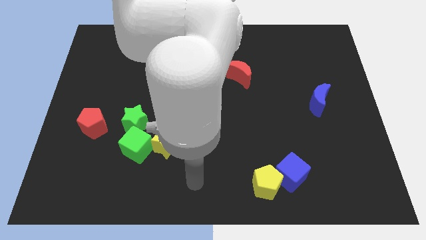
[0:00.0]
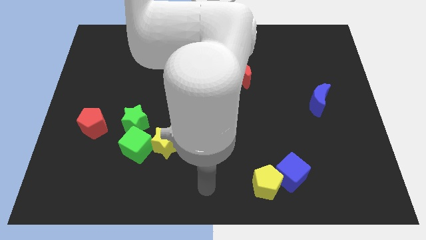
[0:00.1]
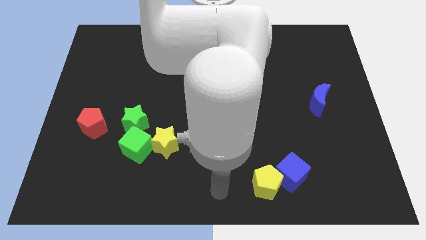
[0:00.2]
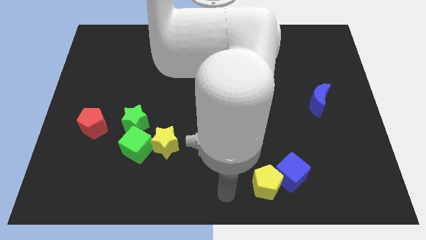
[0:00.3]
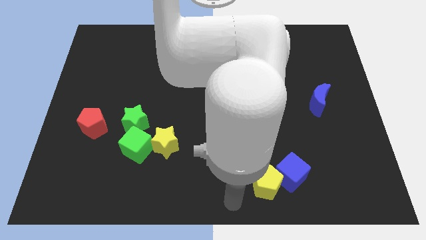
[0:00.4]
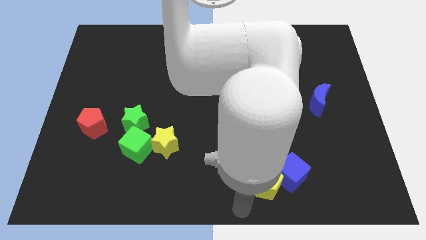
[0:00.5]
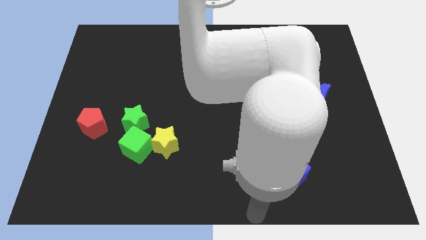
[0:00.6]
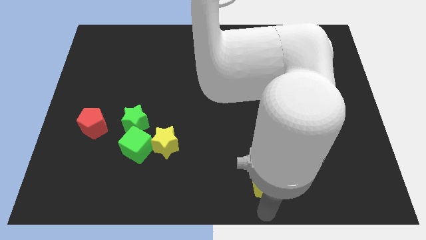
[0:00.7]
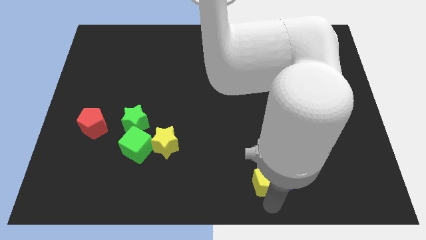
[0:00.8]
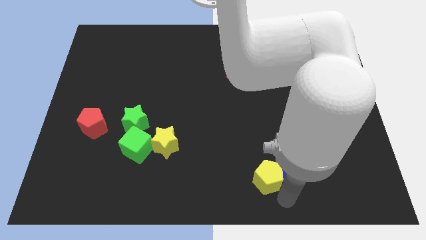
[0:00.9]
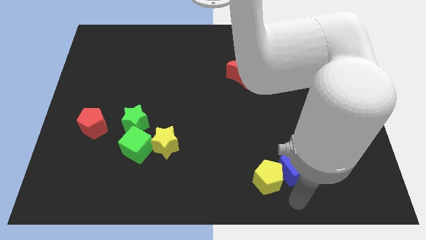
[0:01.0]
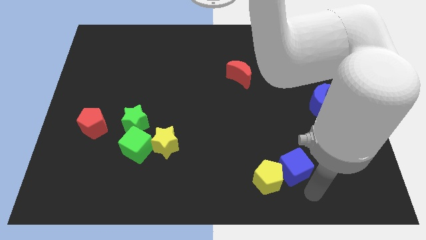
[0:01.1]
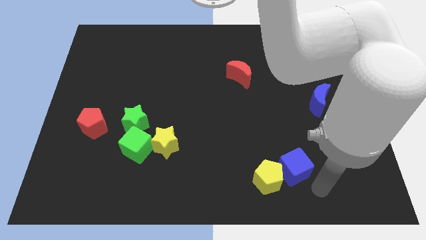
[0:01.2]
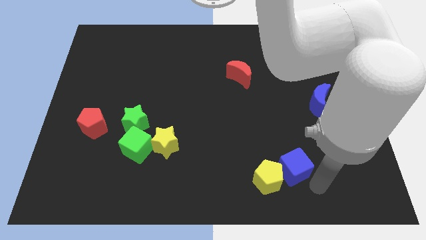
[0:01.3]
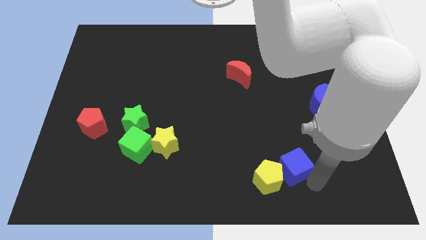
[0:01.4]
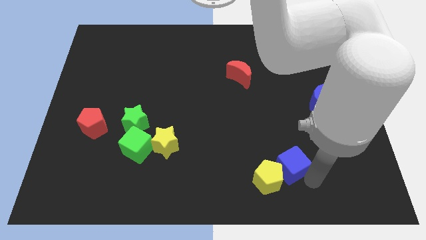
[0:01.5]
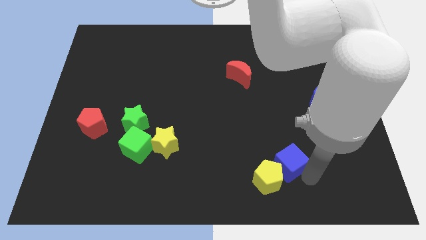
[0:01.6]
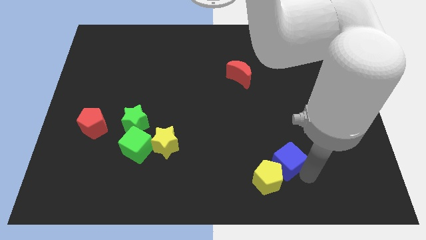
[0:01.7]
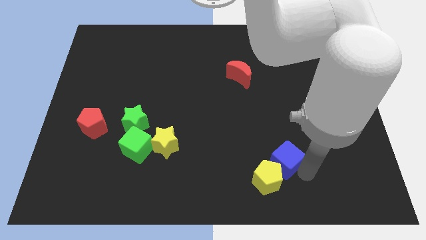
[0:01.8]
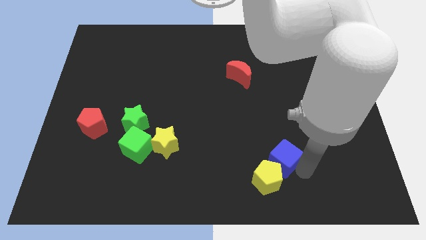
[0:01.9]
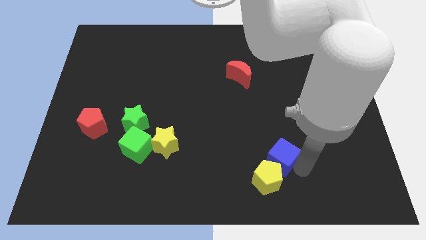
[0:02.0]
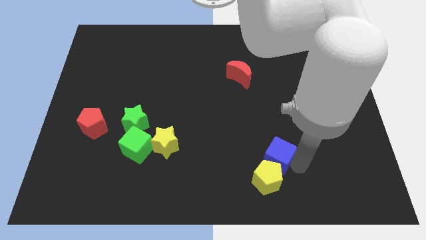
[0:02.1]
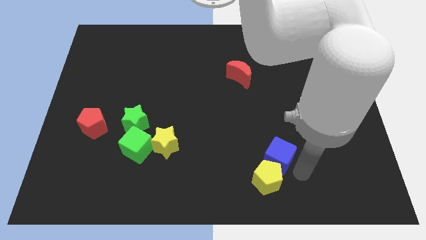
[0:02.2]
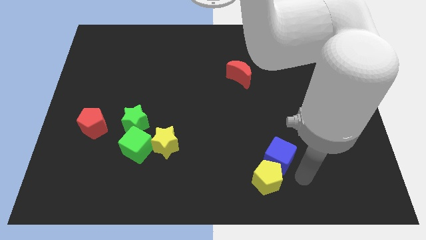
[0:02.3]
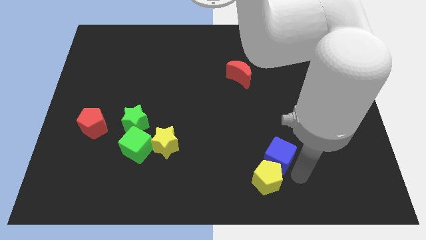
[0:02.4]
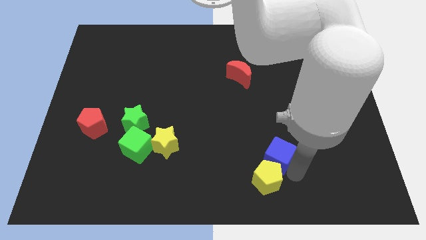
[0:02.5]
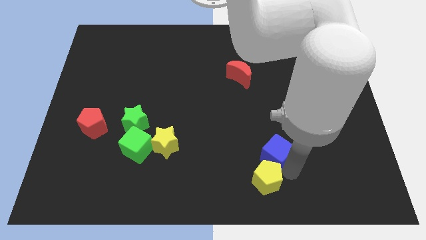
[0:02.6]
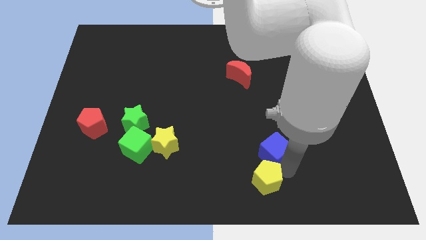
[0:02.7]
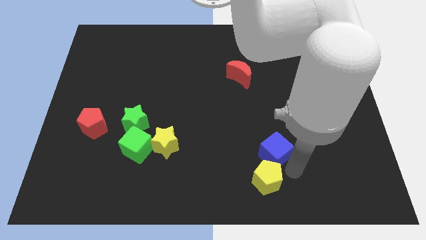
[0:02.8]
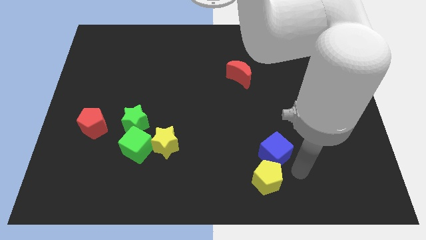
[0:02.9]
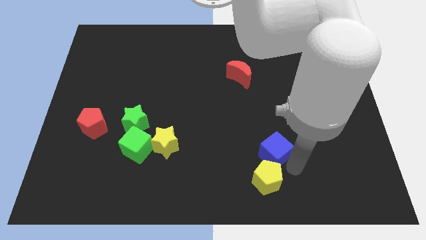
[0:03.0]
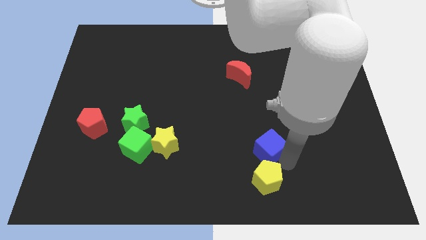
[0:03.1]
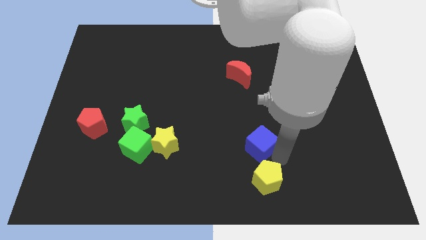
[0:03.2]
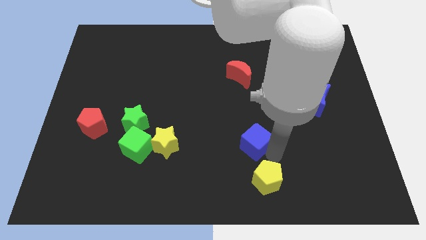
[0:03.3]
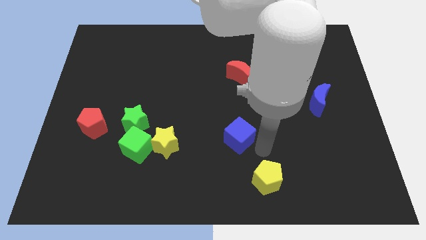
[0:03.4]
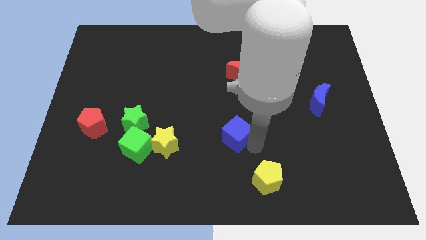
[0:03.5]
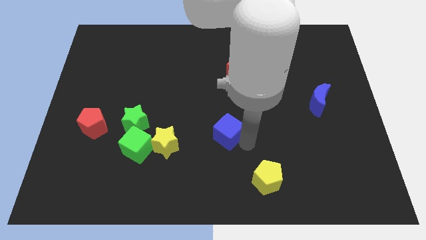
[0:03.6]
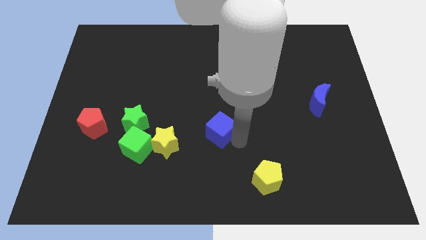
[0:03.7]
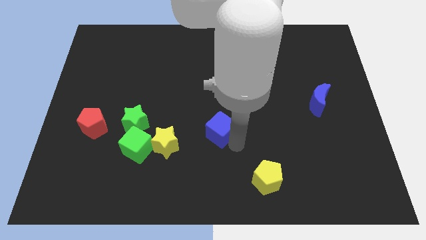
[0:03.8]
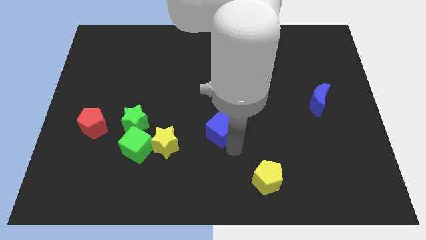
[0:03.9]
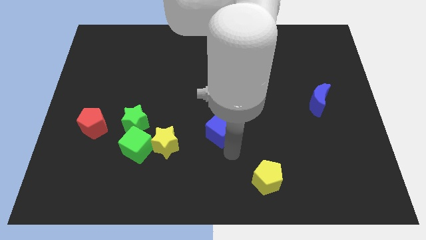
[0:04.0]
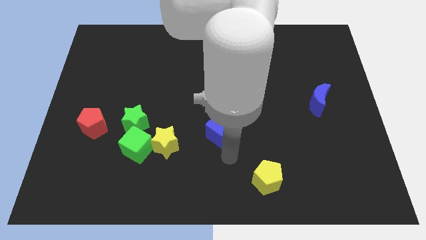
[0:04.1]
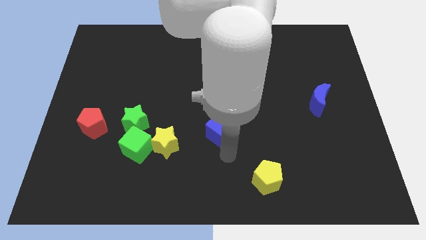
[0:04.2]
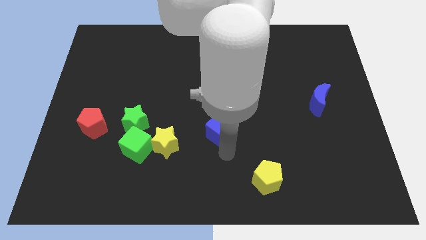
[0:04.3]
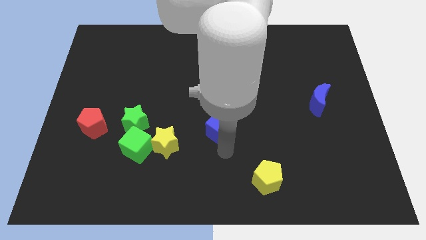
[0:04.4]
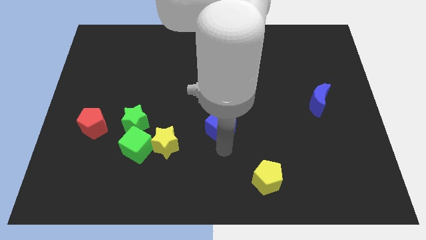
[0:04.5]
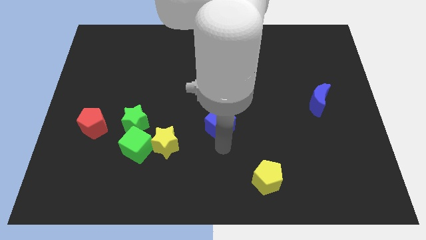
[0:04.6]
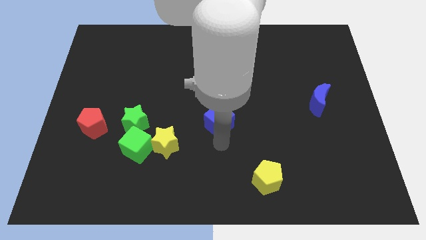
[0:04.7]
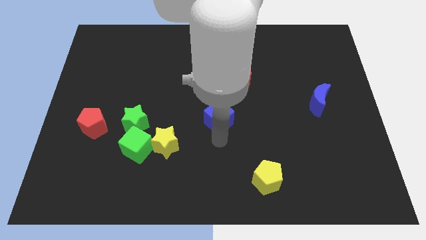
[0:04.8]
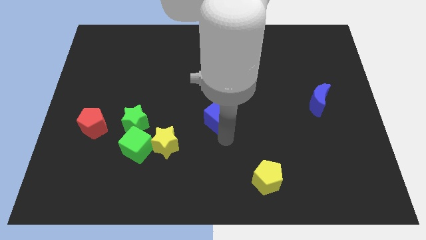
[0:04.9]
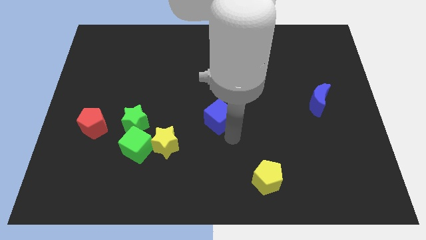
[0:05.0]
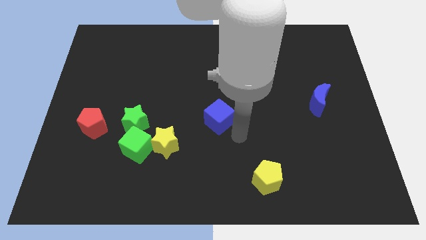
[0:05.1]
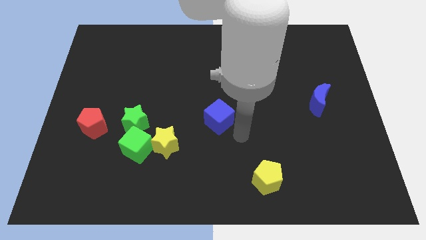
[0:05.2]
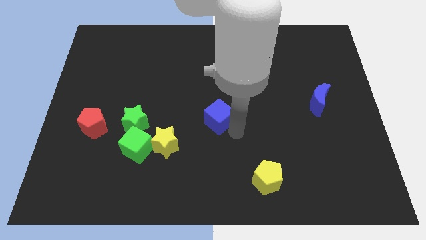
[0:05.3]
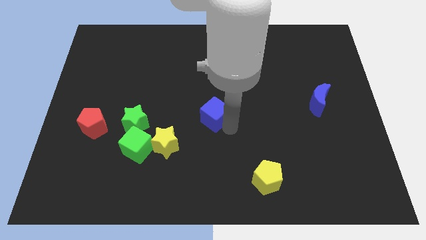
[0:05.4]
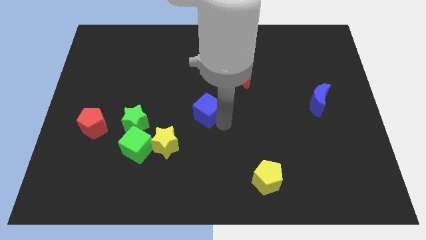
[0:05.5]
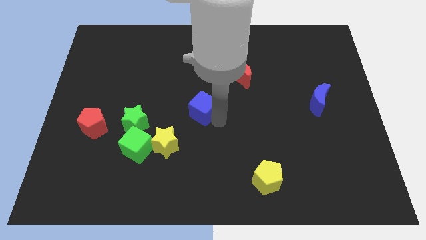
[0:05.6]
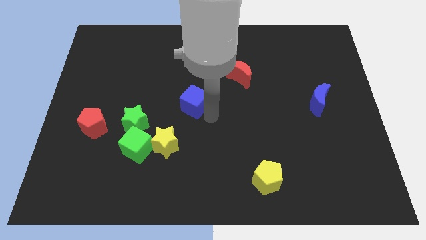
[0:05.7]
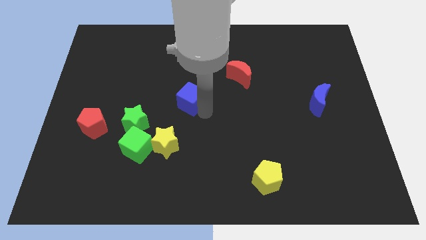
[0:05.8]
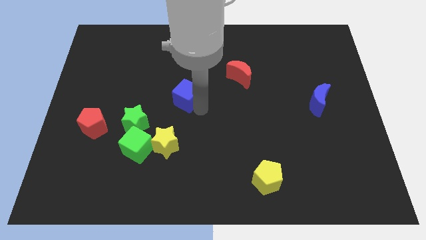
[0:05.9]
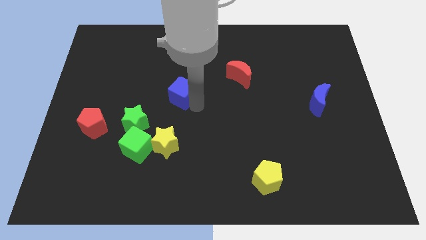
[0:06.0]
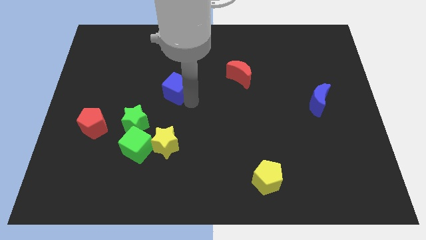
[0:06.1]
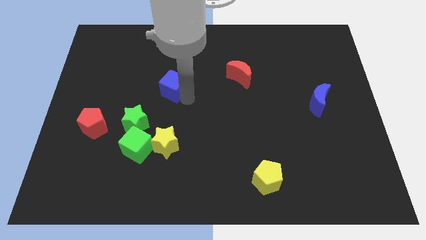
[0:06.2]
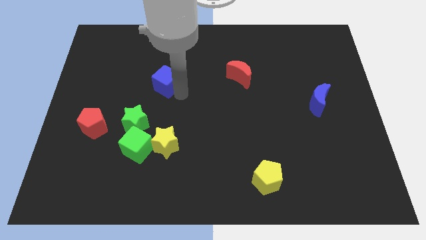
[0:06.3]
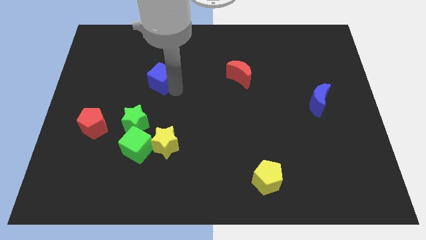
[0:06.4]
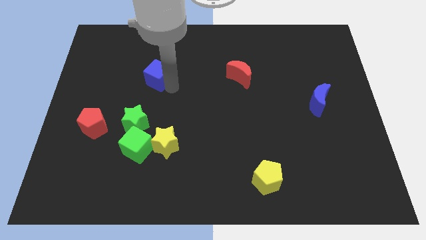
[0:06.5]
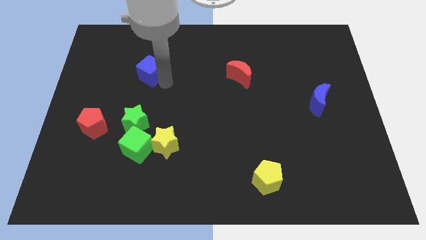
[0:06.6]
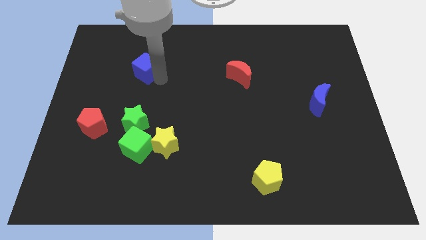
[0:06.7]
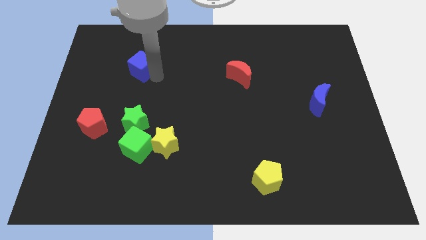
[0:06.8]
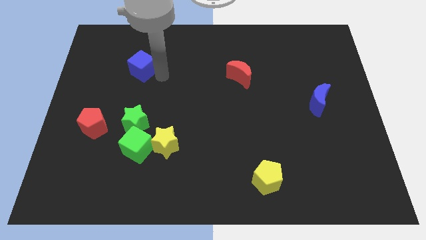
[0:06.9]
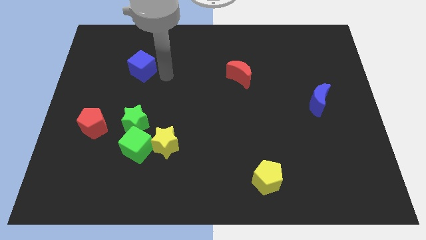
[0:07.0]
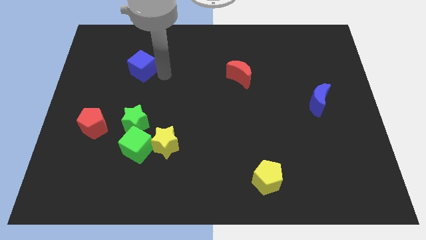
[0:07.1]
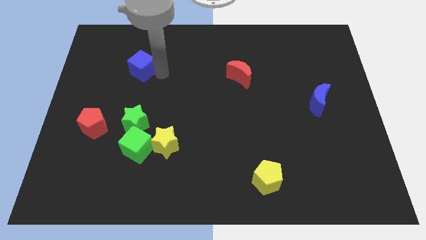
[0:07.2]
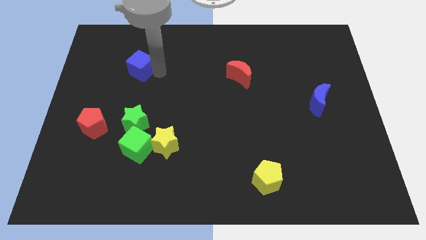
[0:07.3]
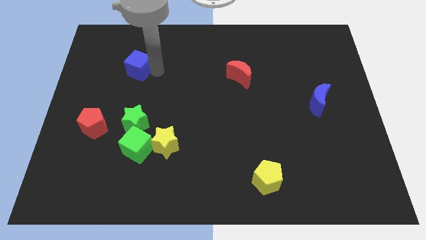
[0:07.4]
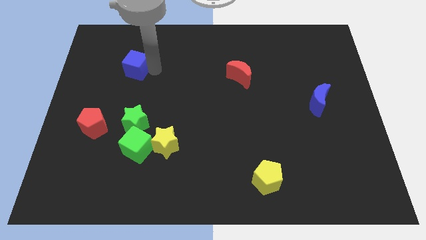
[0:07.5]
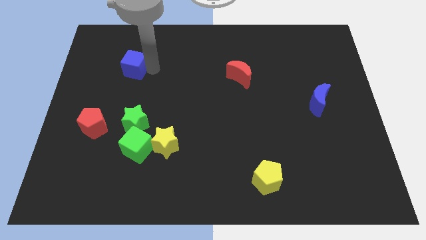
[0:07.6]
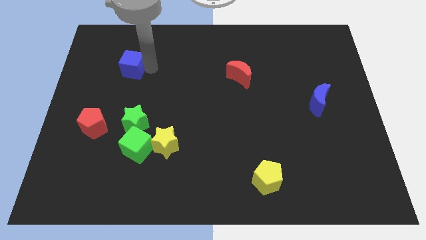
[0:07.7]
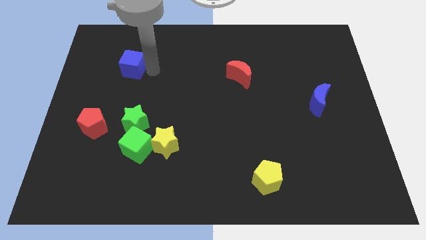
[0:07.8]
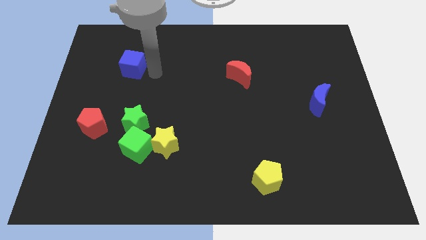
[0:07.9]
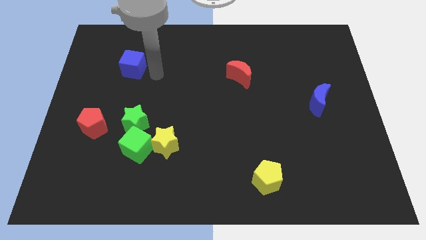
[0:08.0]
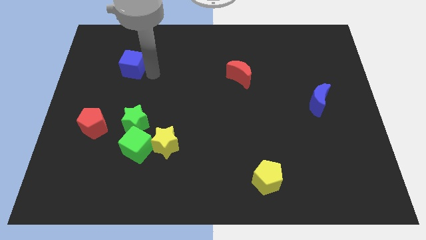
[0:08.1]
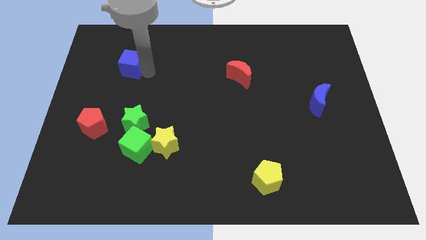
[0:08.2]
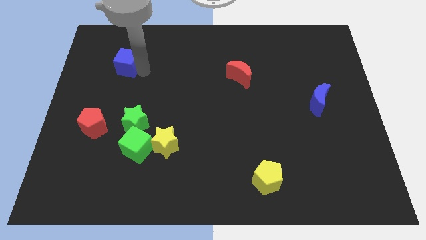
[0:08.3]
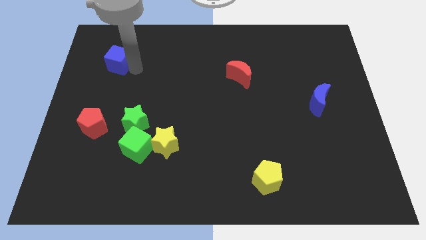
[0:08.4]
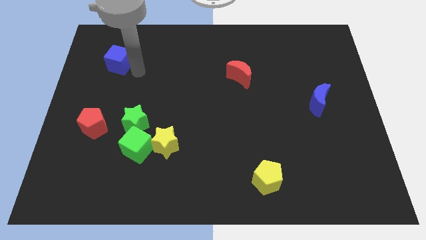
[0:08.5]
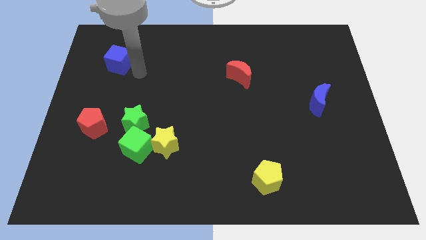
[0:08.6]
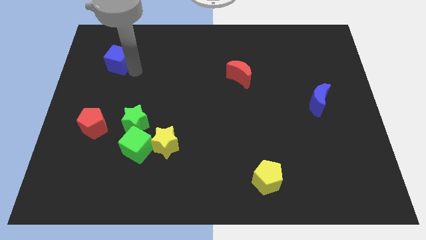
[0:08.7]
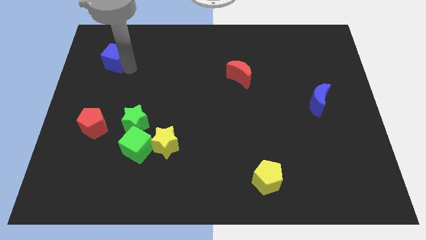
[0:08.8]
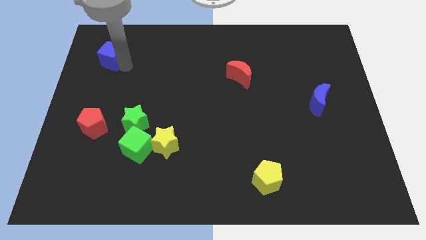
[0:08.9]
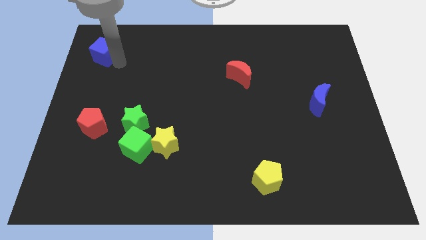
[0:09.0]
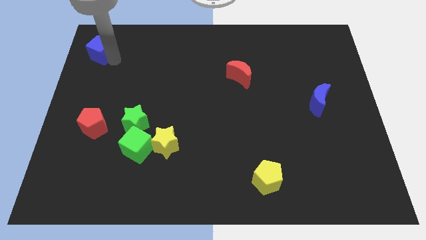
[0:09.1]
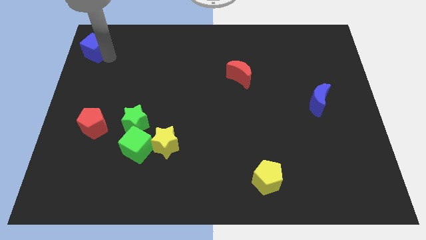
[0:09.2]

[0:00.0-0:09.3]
push the blue cube to the upper left corner
